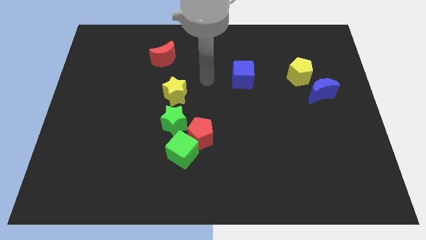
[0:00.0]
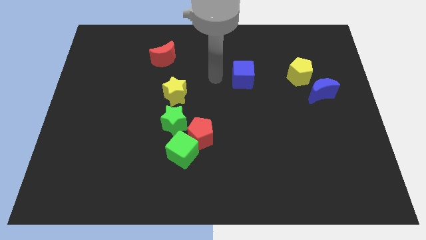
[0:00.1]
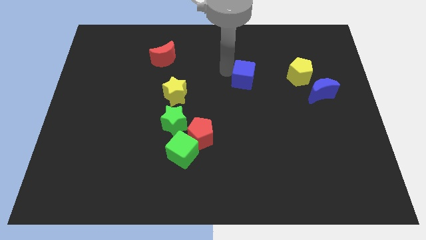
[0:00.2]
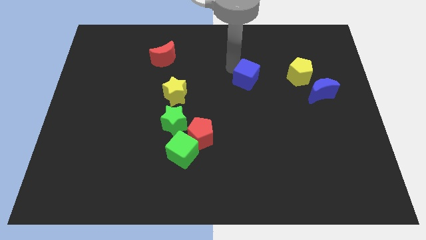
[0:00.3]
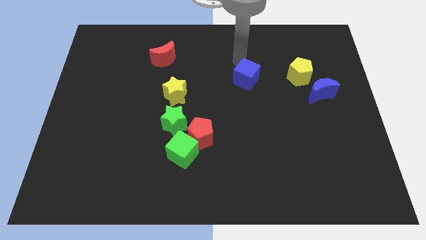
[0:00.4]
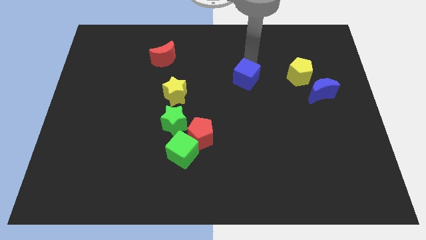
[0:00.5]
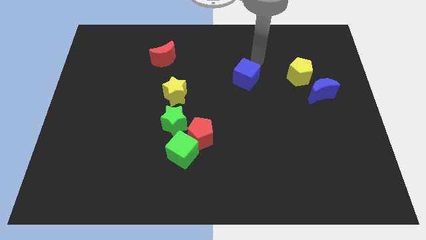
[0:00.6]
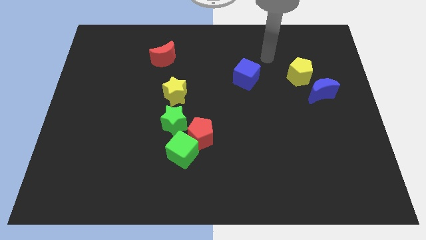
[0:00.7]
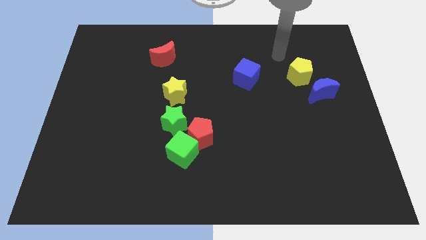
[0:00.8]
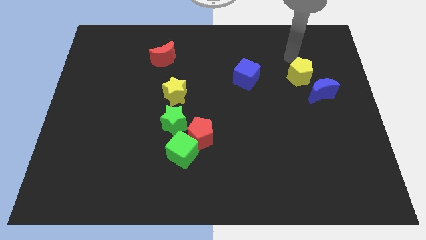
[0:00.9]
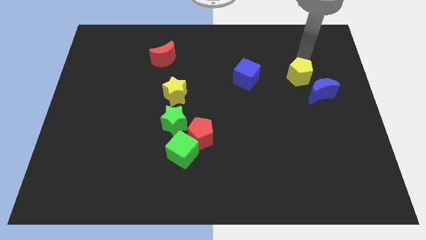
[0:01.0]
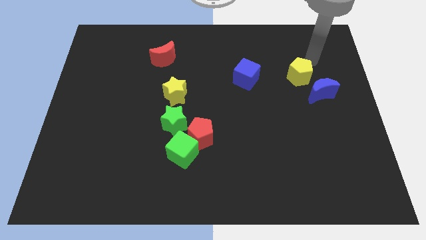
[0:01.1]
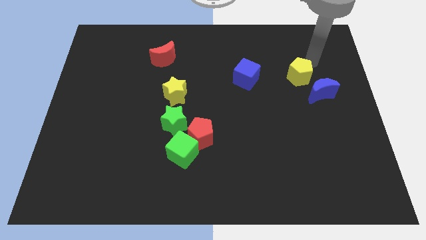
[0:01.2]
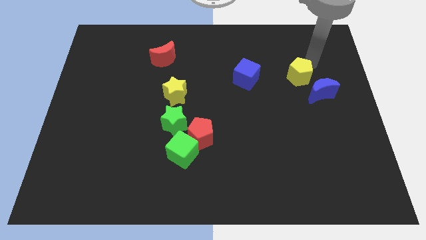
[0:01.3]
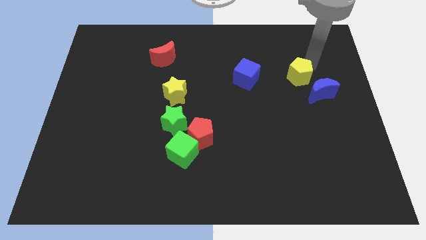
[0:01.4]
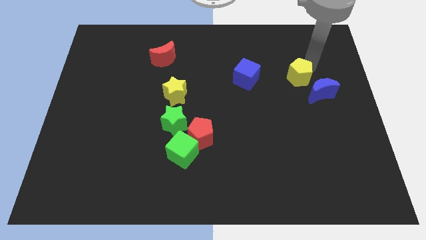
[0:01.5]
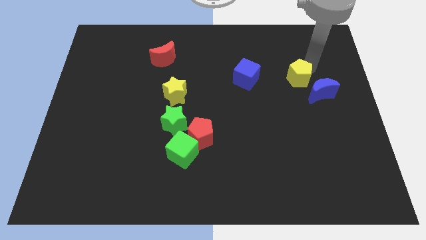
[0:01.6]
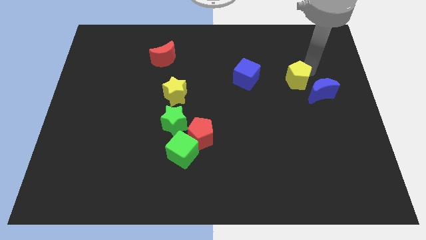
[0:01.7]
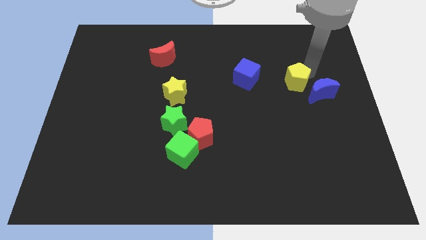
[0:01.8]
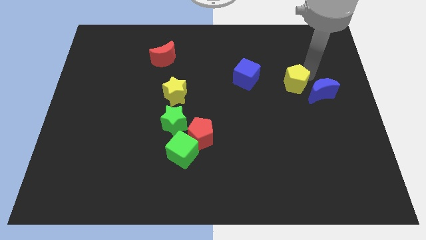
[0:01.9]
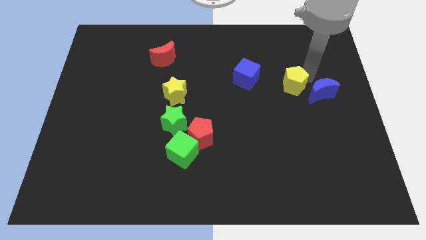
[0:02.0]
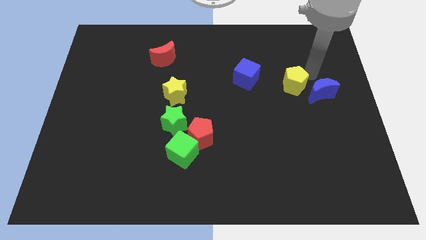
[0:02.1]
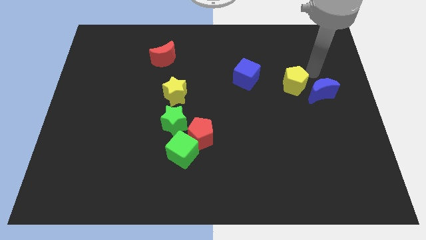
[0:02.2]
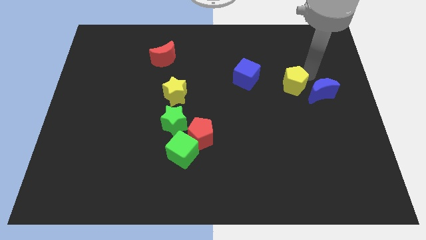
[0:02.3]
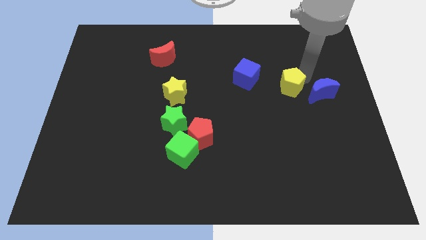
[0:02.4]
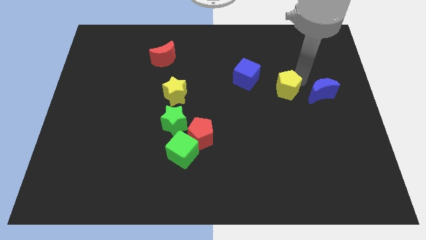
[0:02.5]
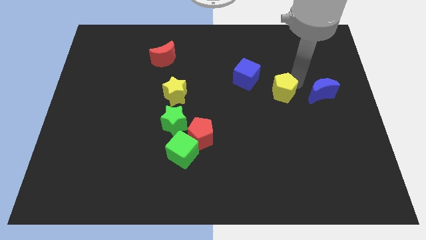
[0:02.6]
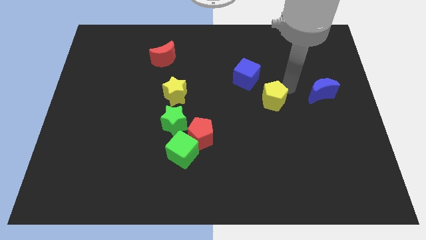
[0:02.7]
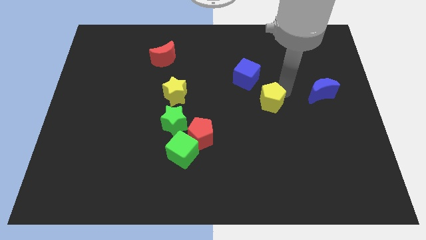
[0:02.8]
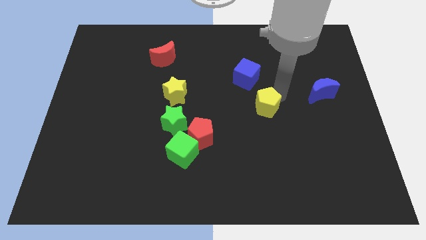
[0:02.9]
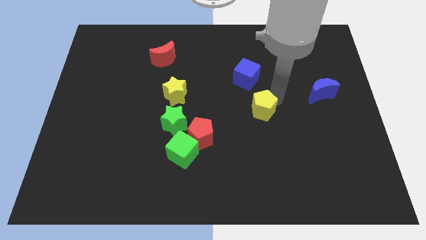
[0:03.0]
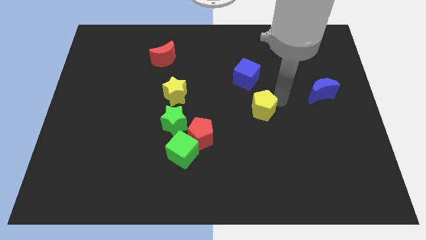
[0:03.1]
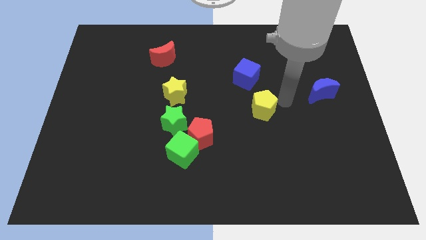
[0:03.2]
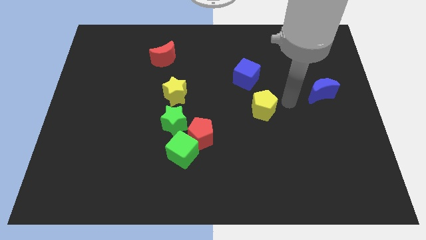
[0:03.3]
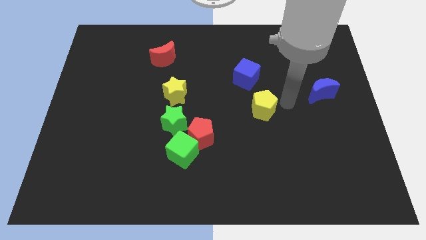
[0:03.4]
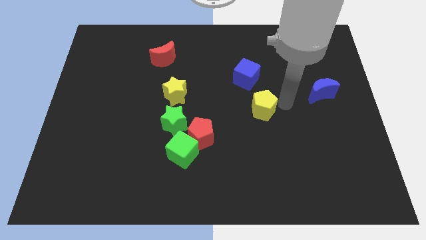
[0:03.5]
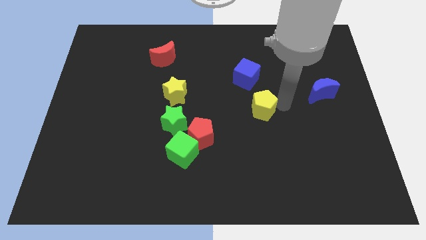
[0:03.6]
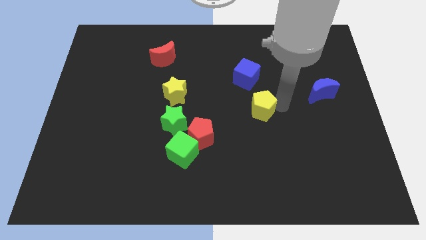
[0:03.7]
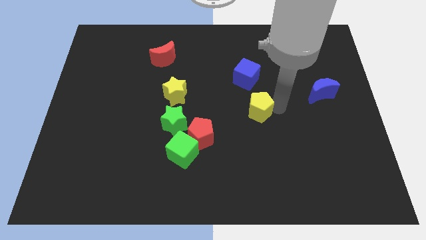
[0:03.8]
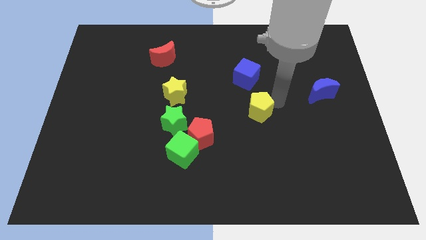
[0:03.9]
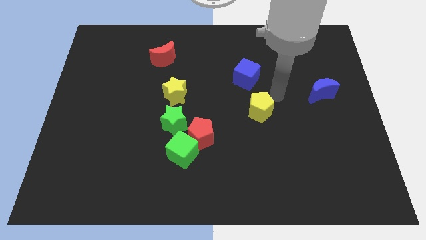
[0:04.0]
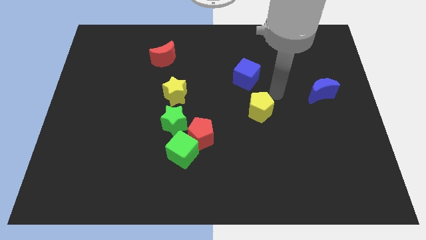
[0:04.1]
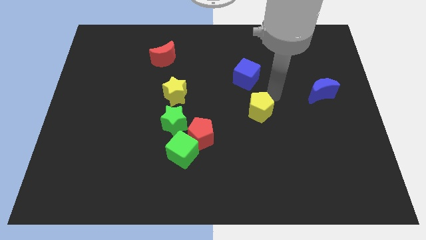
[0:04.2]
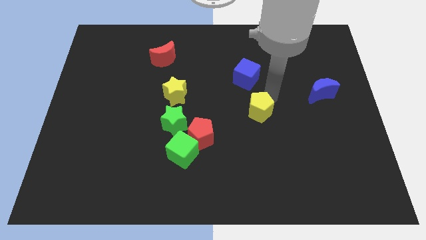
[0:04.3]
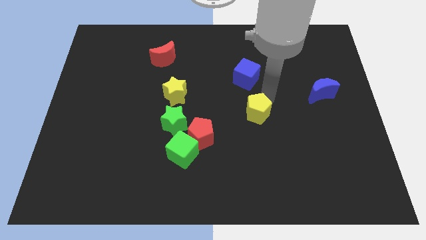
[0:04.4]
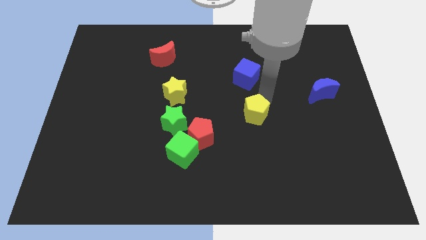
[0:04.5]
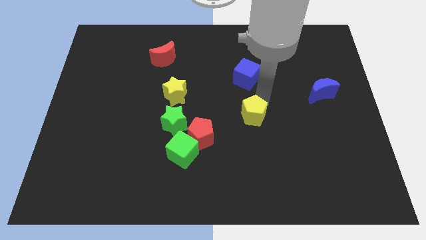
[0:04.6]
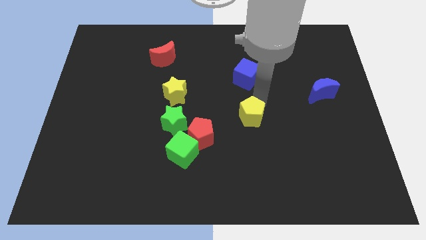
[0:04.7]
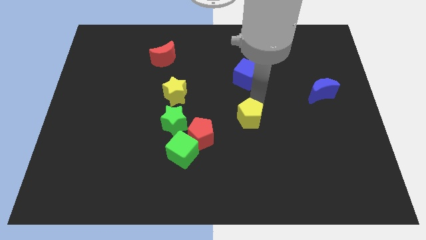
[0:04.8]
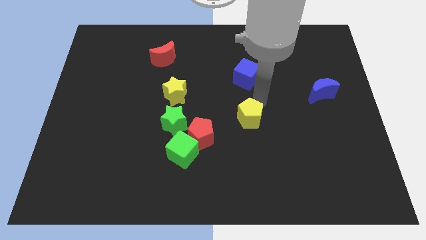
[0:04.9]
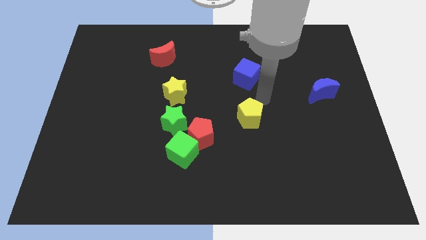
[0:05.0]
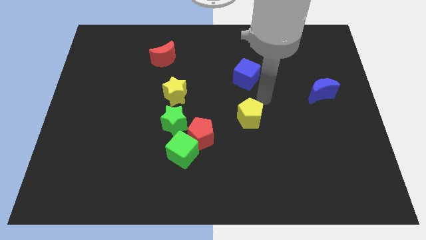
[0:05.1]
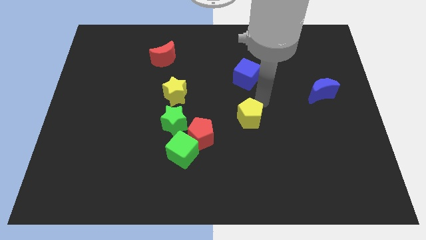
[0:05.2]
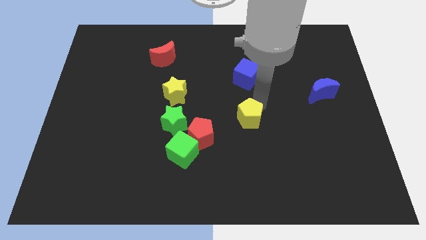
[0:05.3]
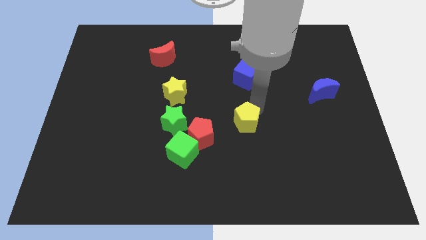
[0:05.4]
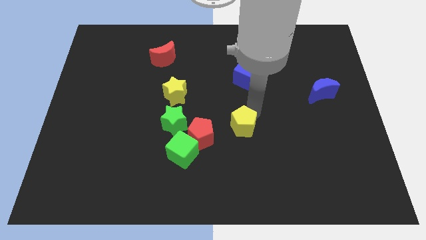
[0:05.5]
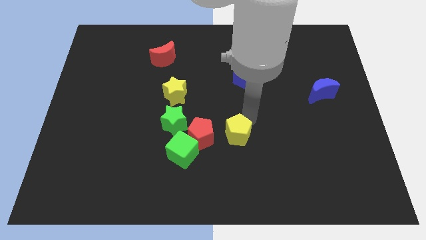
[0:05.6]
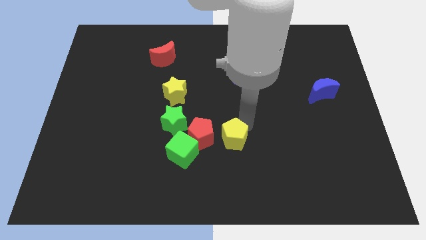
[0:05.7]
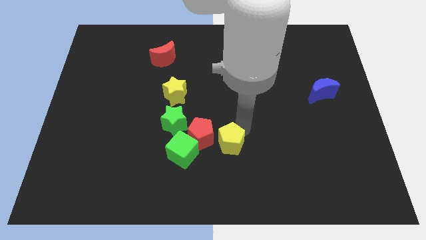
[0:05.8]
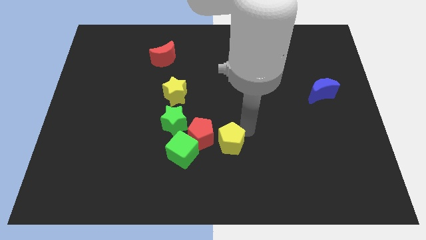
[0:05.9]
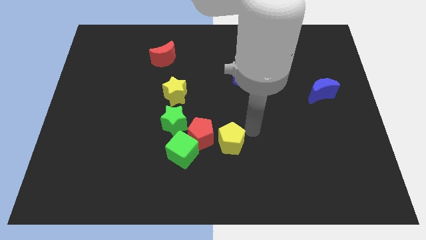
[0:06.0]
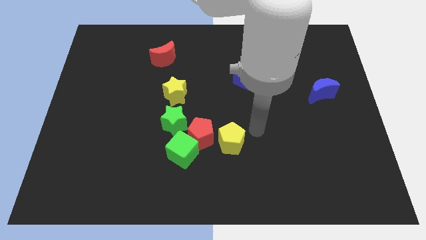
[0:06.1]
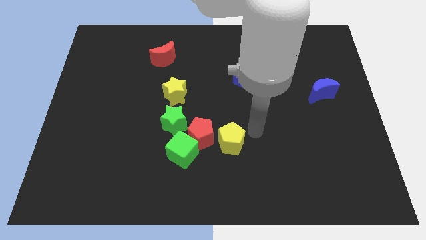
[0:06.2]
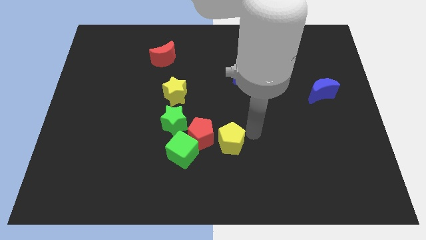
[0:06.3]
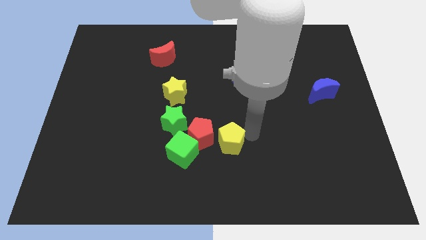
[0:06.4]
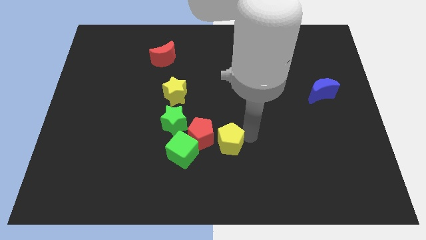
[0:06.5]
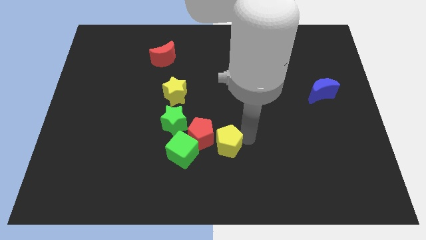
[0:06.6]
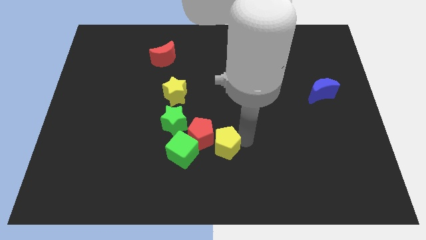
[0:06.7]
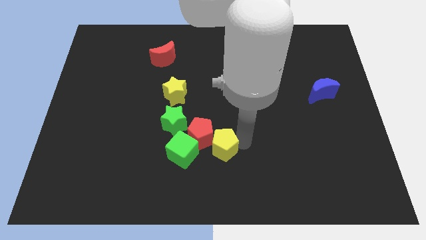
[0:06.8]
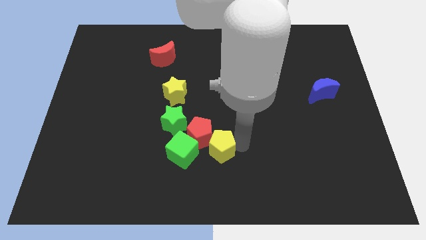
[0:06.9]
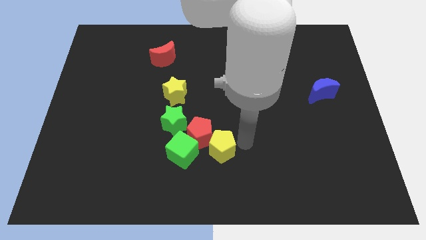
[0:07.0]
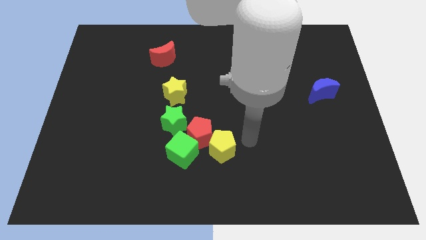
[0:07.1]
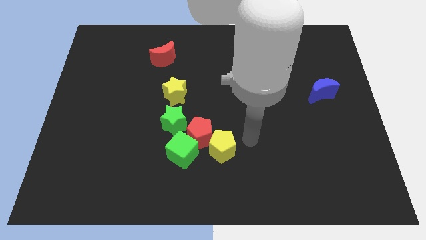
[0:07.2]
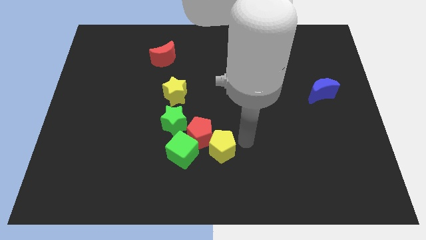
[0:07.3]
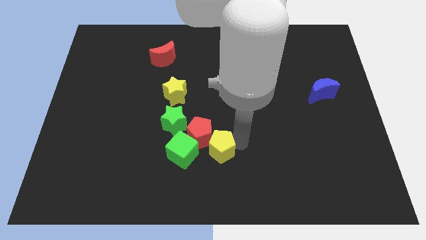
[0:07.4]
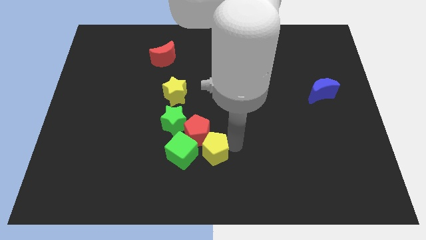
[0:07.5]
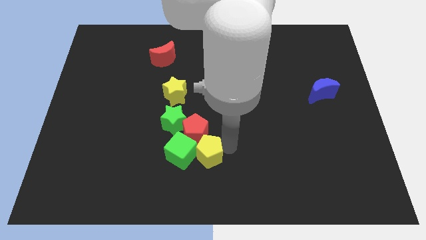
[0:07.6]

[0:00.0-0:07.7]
move the yellow pentagon close to the green cube
